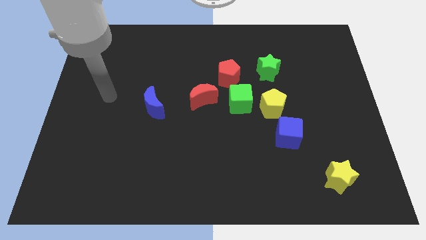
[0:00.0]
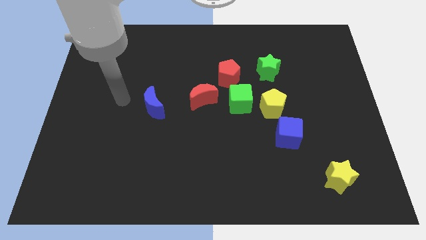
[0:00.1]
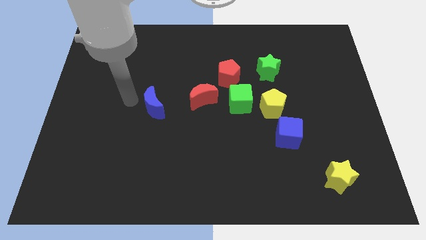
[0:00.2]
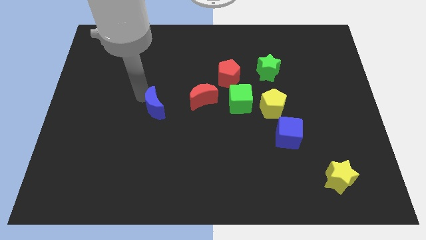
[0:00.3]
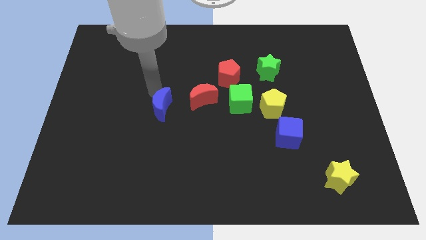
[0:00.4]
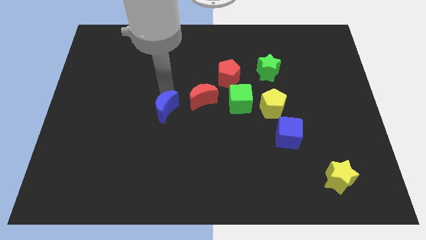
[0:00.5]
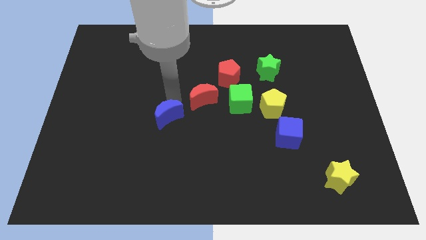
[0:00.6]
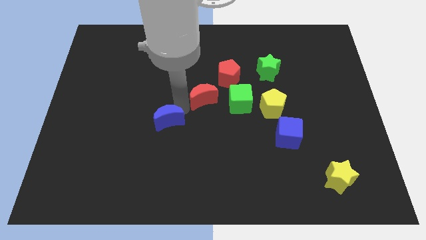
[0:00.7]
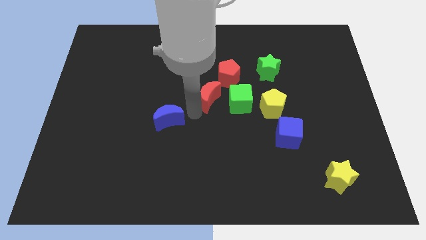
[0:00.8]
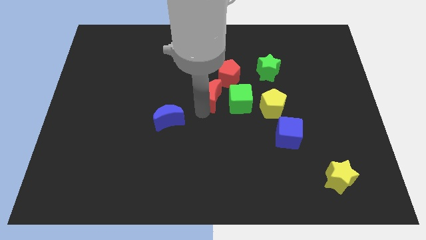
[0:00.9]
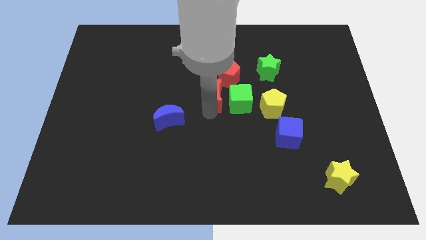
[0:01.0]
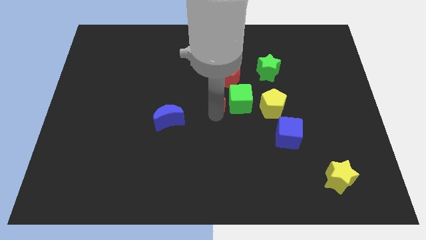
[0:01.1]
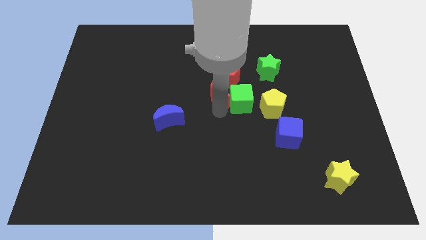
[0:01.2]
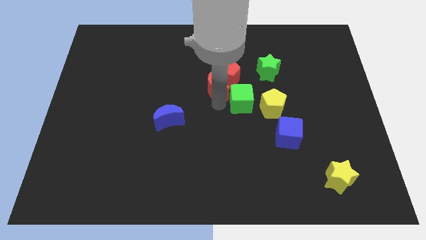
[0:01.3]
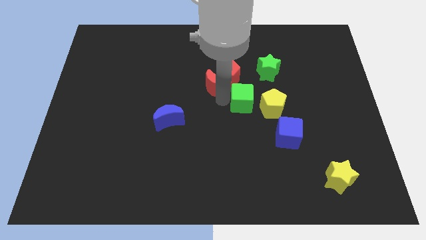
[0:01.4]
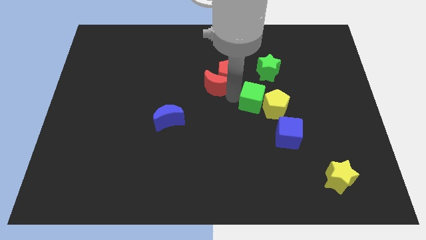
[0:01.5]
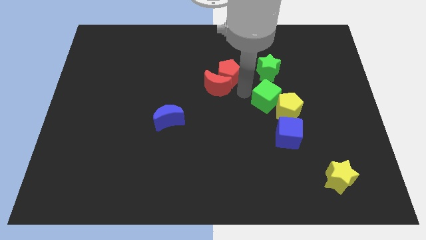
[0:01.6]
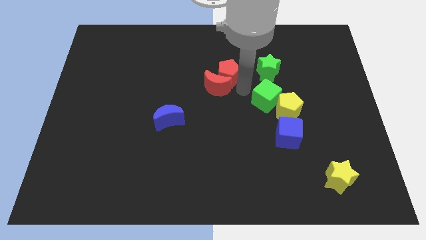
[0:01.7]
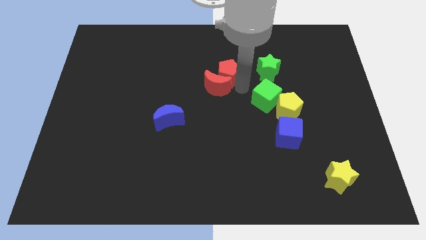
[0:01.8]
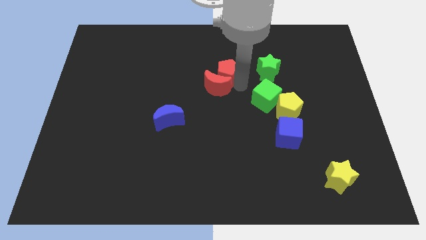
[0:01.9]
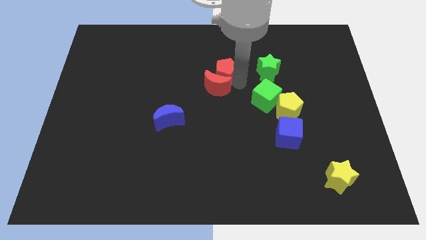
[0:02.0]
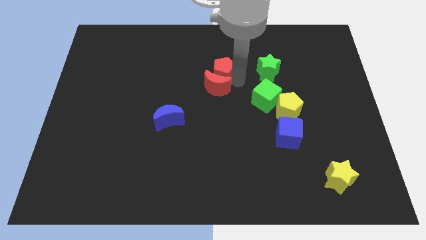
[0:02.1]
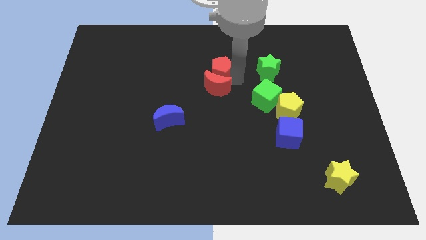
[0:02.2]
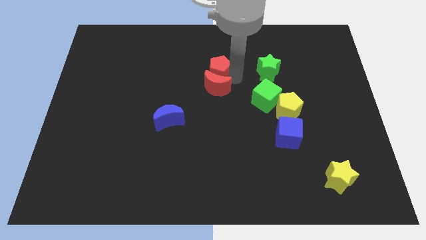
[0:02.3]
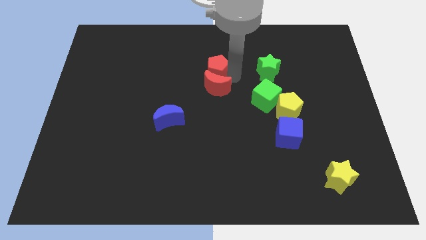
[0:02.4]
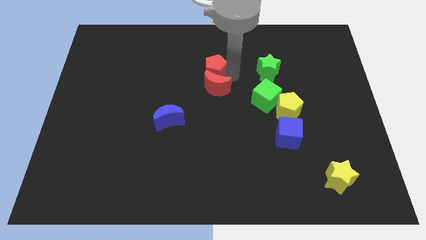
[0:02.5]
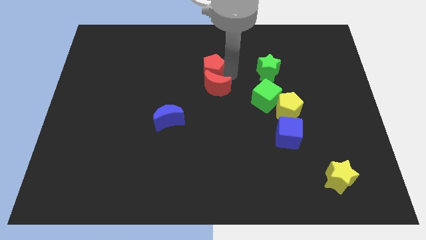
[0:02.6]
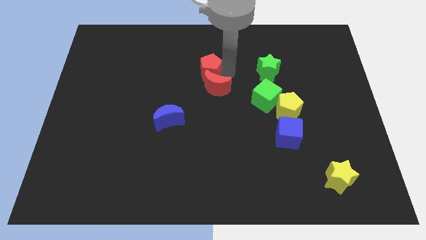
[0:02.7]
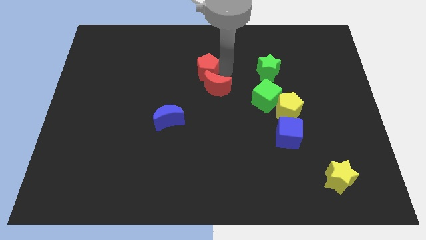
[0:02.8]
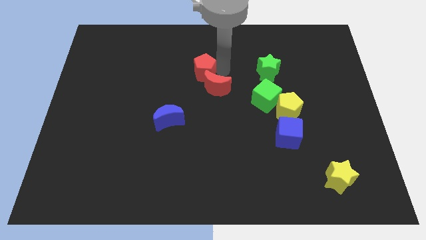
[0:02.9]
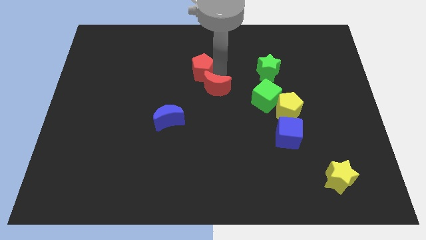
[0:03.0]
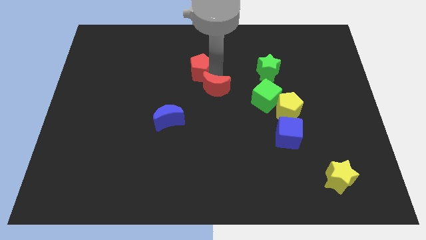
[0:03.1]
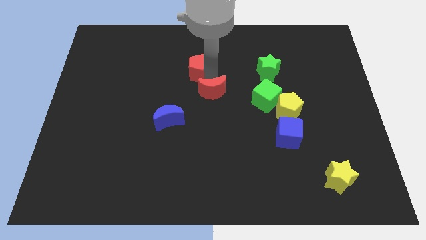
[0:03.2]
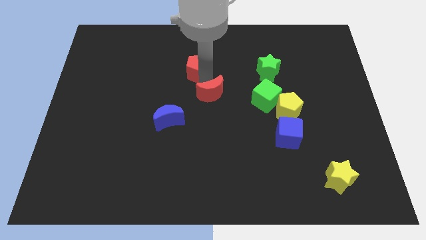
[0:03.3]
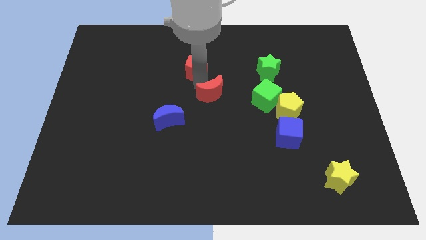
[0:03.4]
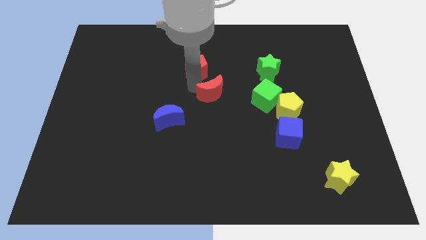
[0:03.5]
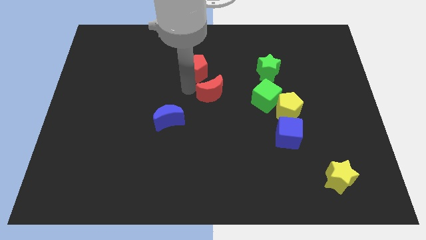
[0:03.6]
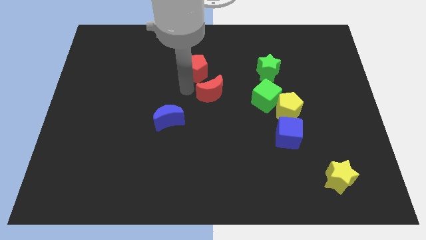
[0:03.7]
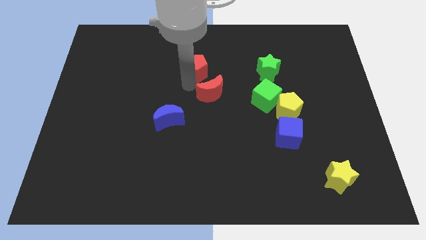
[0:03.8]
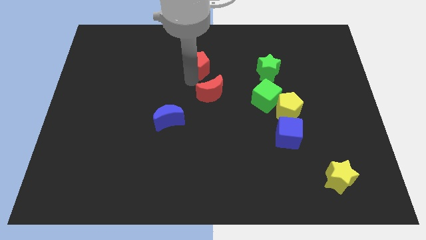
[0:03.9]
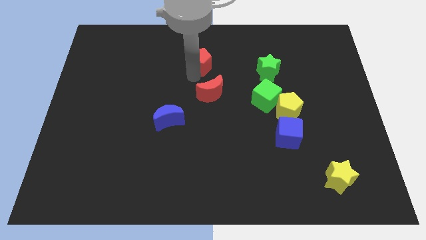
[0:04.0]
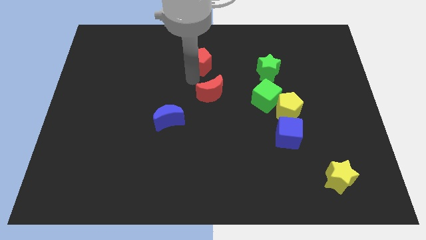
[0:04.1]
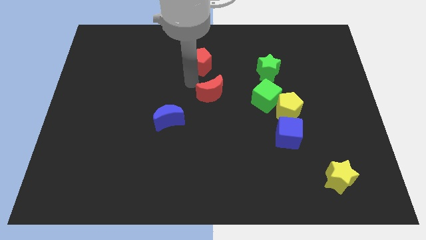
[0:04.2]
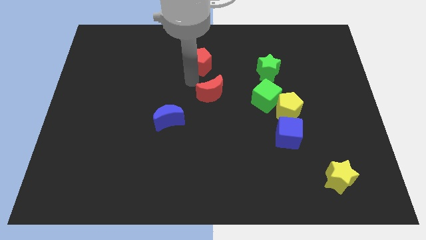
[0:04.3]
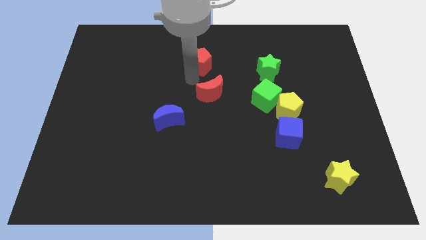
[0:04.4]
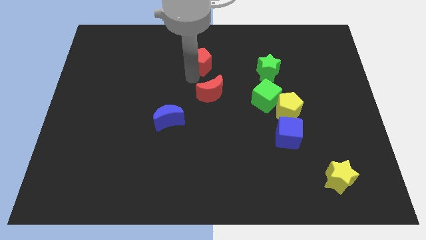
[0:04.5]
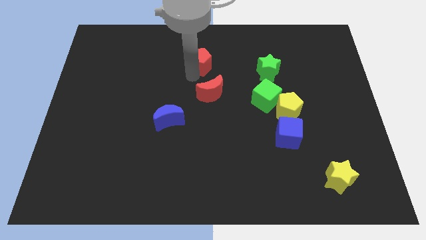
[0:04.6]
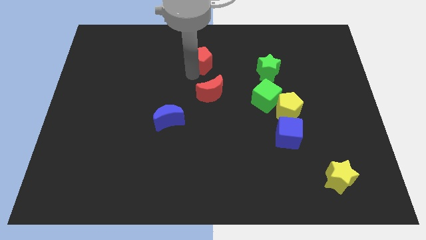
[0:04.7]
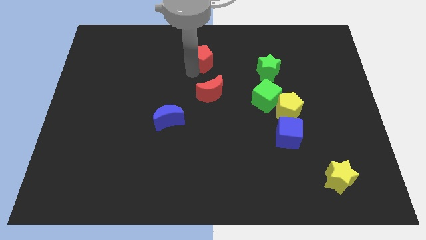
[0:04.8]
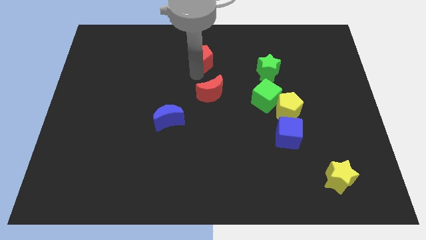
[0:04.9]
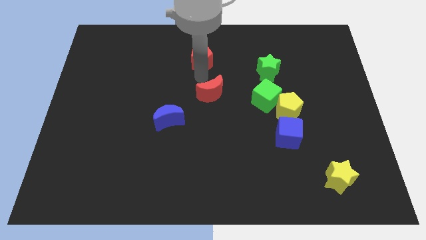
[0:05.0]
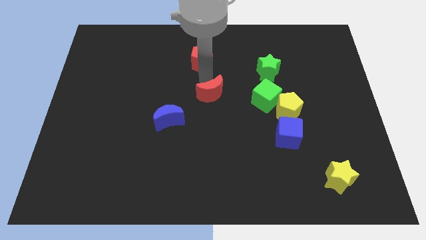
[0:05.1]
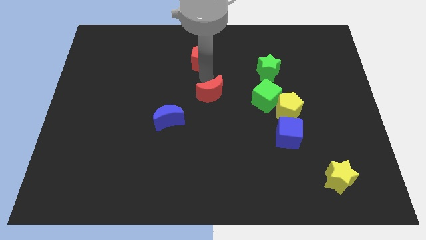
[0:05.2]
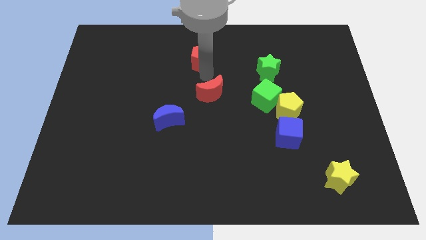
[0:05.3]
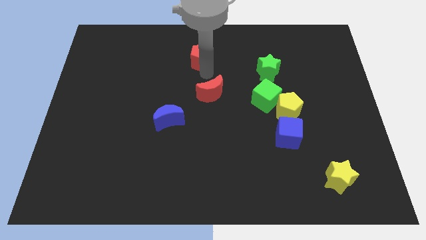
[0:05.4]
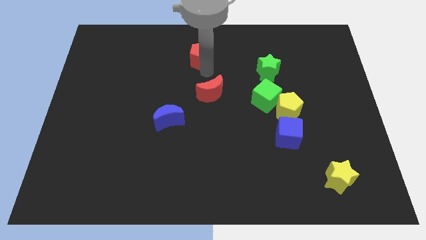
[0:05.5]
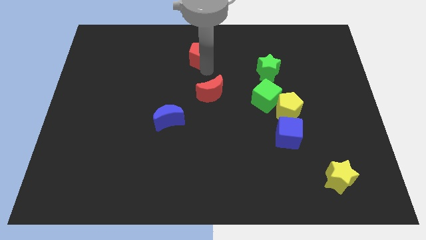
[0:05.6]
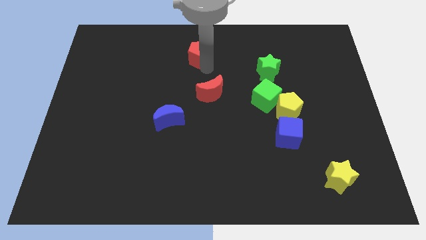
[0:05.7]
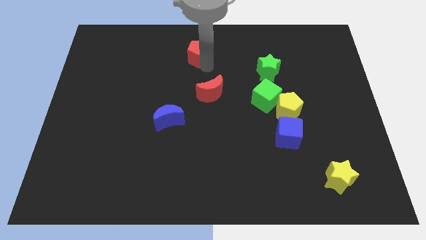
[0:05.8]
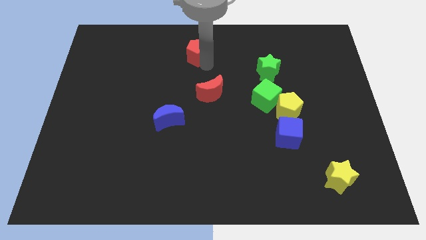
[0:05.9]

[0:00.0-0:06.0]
slide the red pentagon to the top side

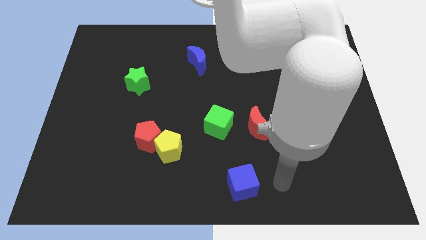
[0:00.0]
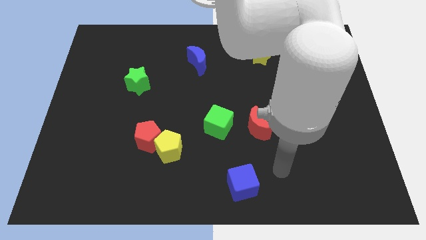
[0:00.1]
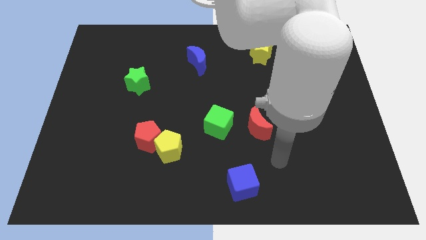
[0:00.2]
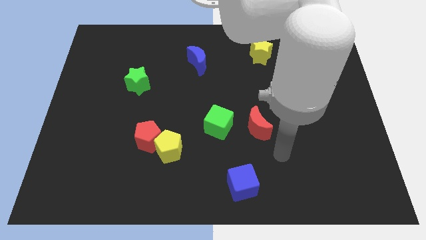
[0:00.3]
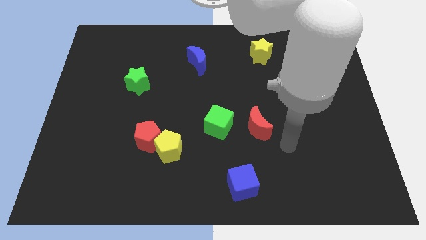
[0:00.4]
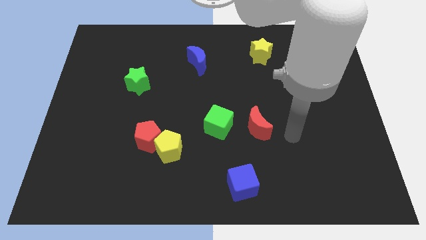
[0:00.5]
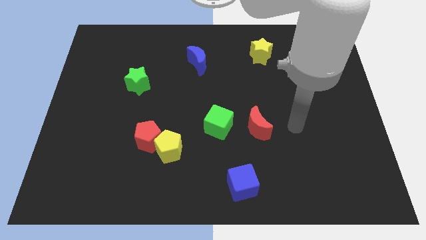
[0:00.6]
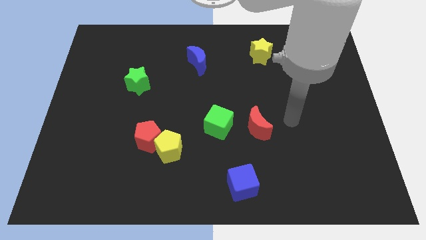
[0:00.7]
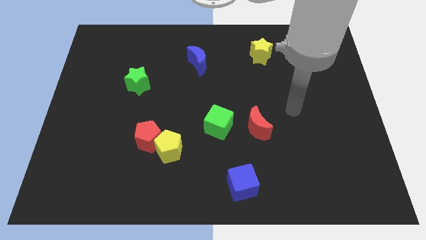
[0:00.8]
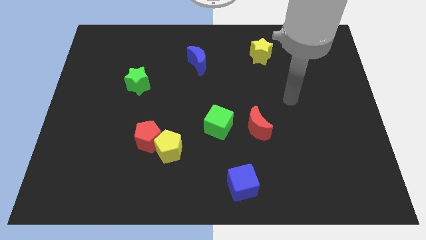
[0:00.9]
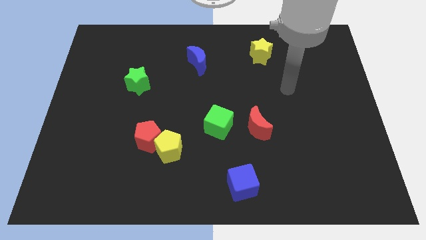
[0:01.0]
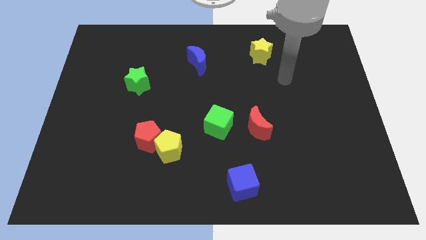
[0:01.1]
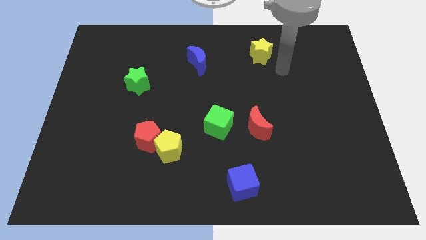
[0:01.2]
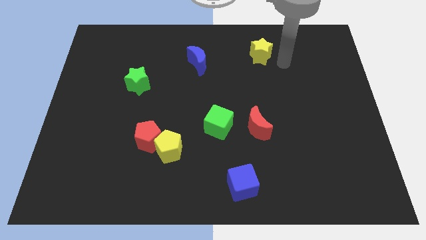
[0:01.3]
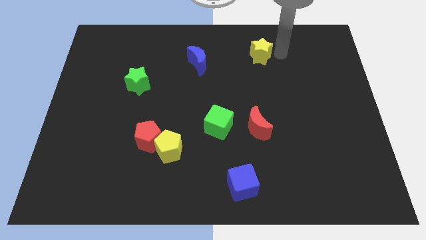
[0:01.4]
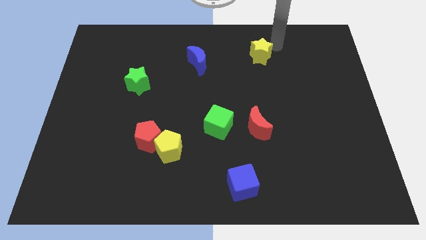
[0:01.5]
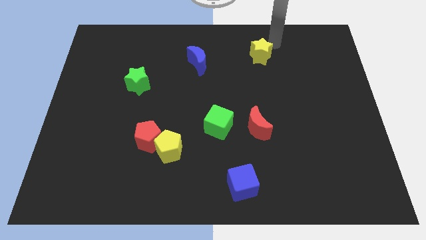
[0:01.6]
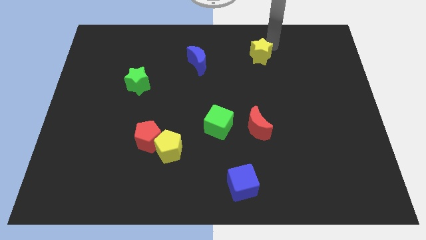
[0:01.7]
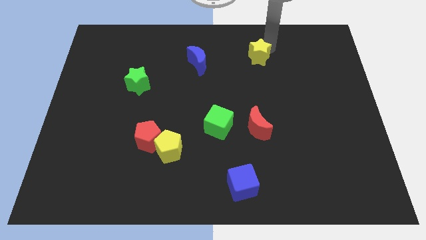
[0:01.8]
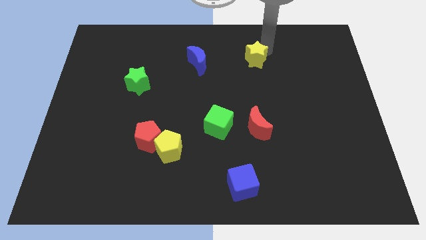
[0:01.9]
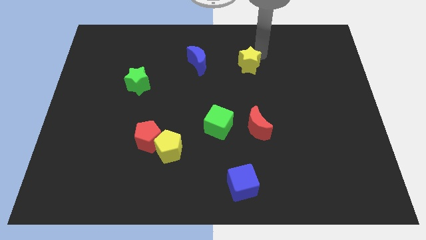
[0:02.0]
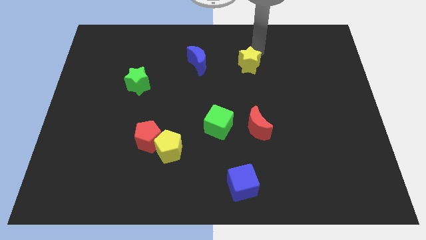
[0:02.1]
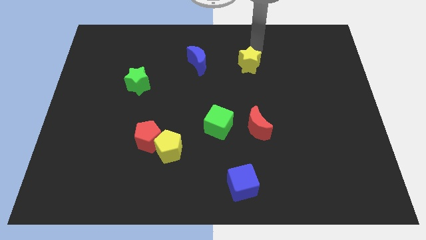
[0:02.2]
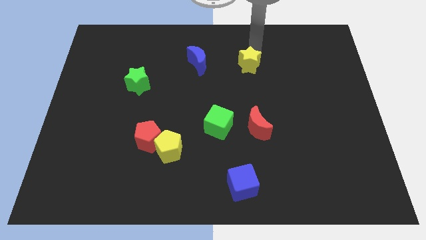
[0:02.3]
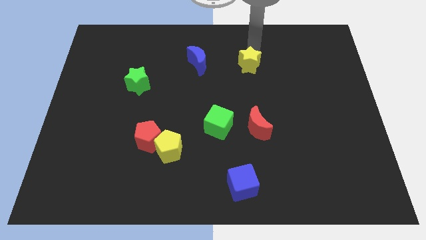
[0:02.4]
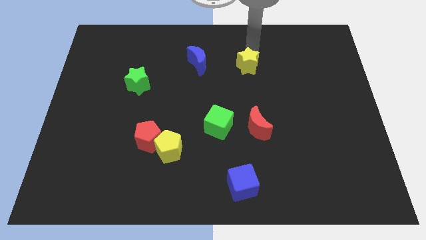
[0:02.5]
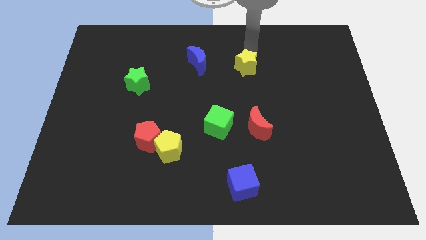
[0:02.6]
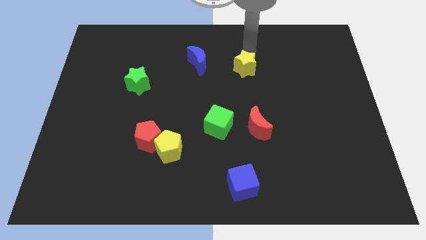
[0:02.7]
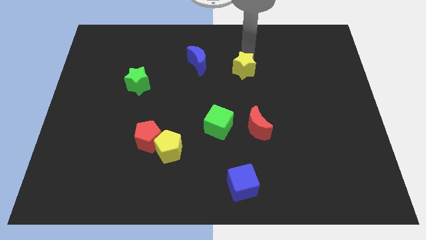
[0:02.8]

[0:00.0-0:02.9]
put the yellow star to the middle
